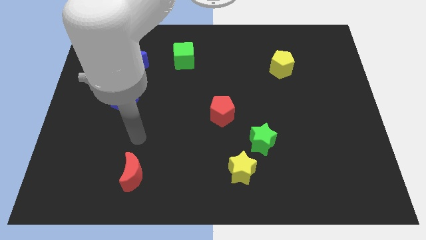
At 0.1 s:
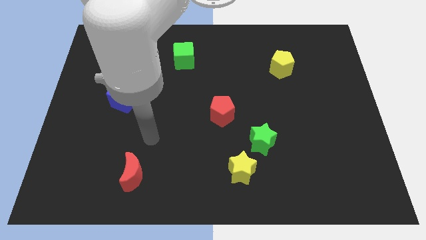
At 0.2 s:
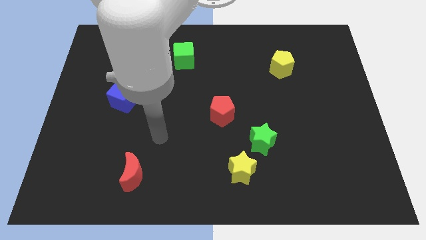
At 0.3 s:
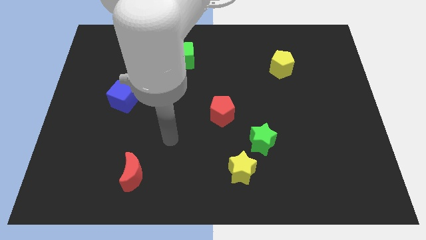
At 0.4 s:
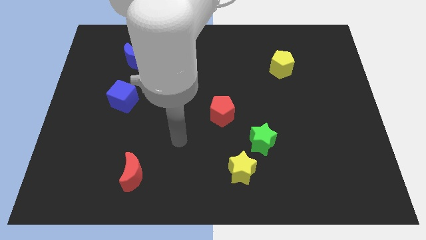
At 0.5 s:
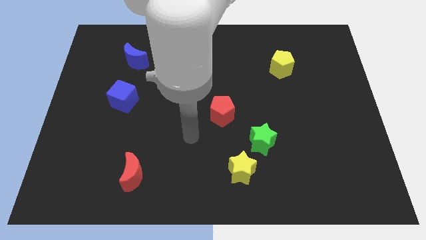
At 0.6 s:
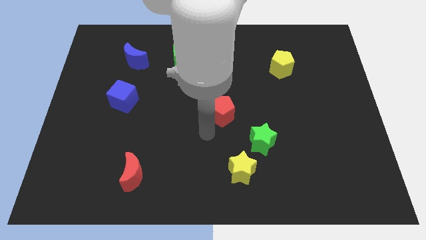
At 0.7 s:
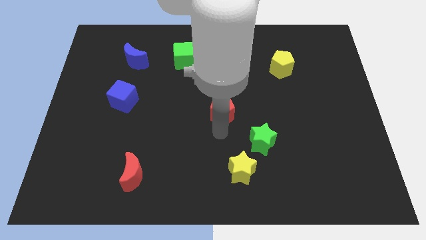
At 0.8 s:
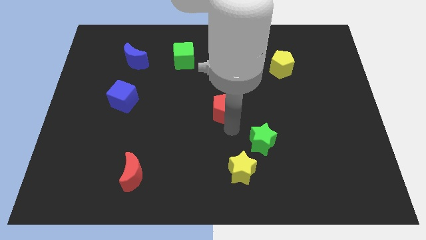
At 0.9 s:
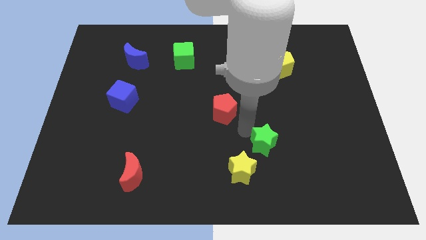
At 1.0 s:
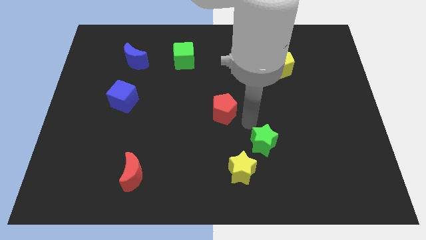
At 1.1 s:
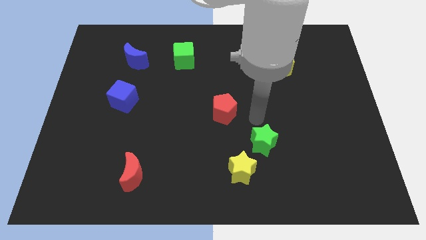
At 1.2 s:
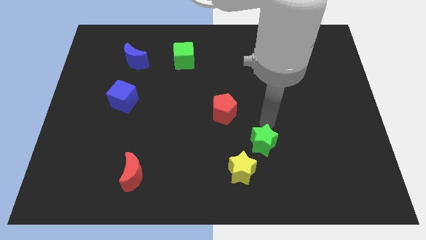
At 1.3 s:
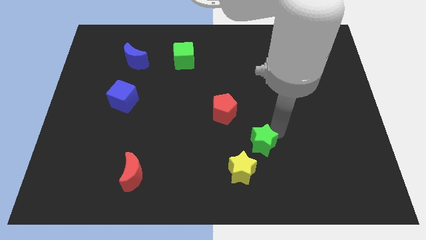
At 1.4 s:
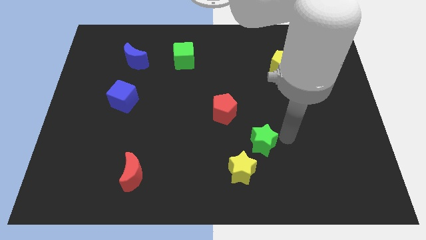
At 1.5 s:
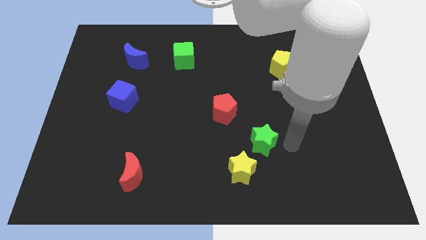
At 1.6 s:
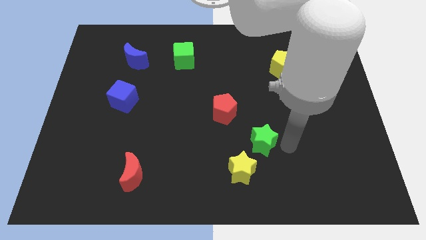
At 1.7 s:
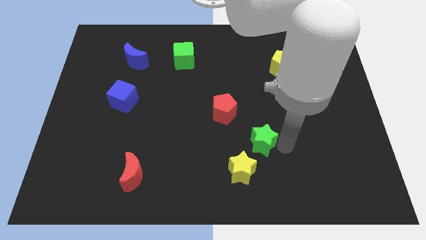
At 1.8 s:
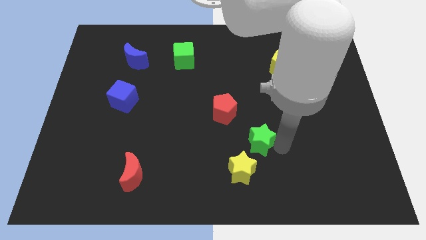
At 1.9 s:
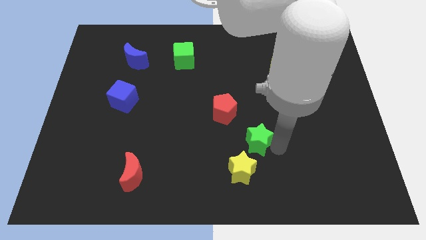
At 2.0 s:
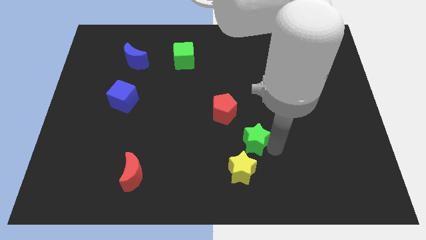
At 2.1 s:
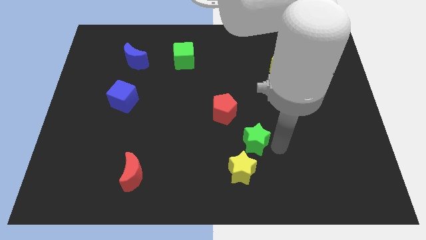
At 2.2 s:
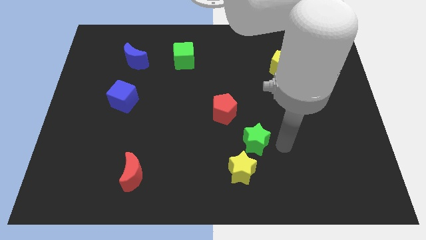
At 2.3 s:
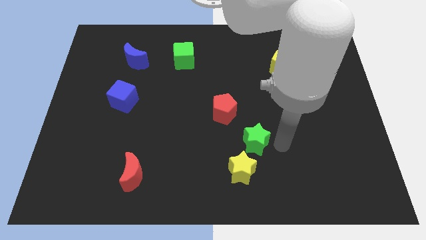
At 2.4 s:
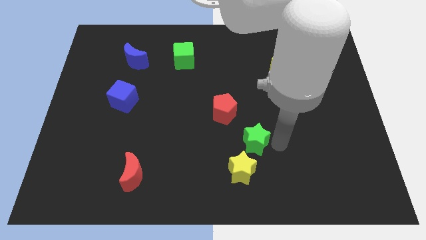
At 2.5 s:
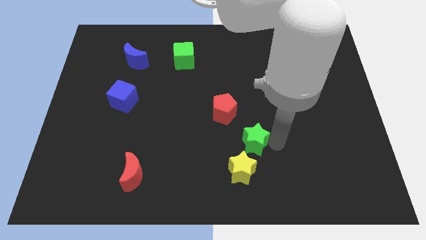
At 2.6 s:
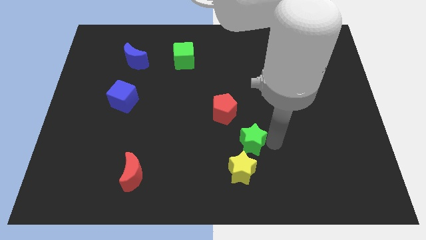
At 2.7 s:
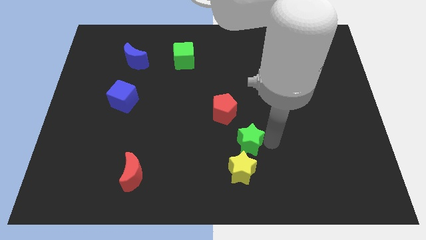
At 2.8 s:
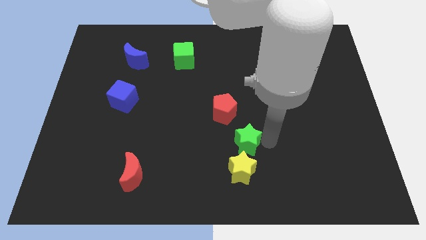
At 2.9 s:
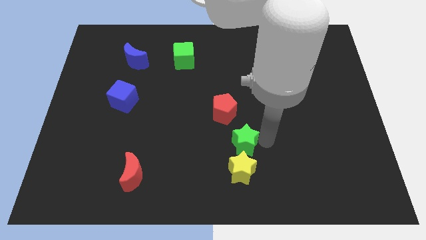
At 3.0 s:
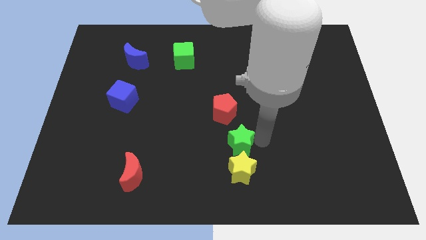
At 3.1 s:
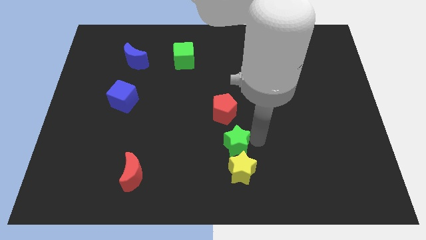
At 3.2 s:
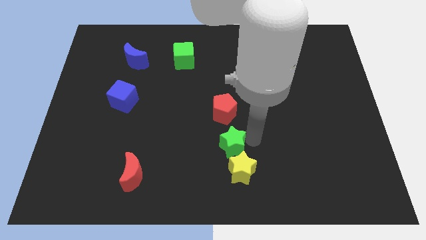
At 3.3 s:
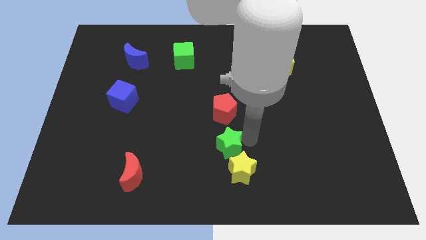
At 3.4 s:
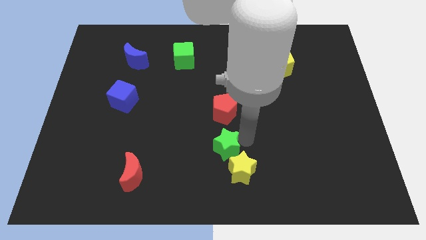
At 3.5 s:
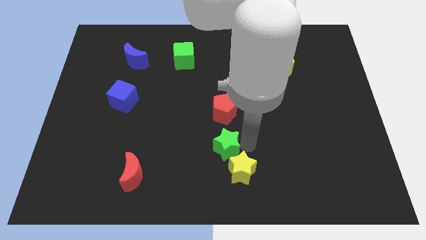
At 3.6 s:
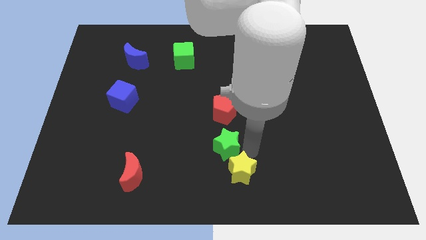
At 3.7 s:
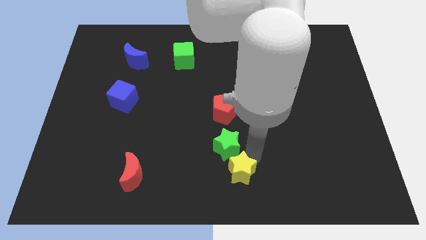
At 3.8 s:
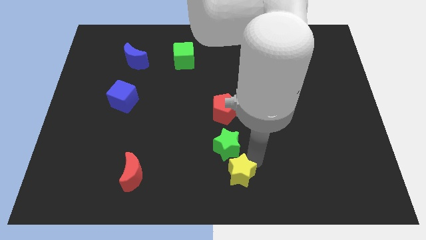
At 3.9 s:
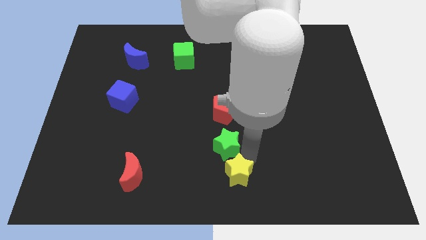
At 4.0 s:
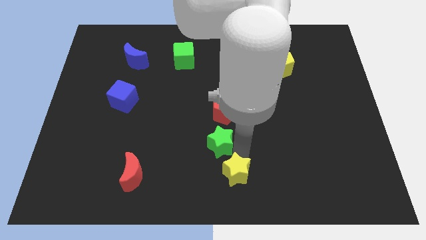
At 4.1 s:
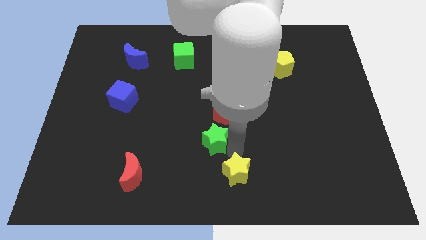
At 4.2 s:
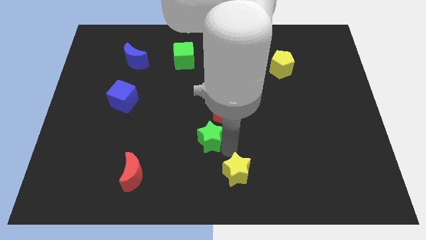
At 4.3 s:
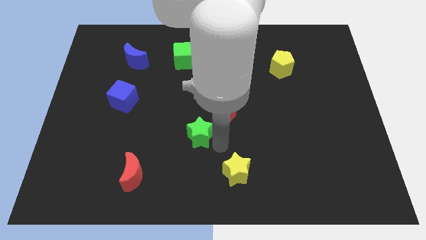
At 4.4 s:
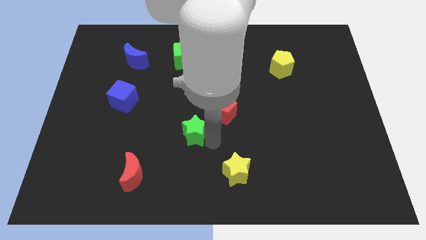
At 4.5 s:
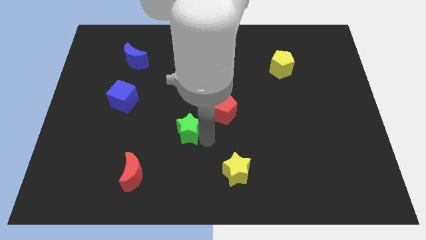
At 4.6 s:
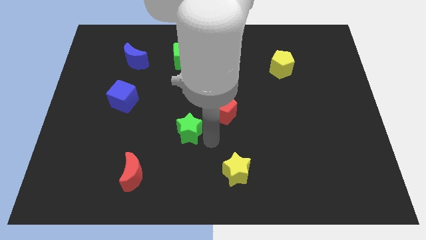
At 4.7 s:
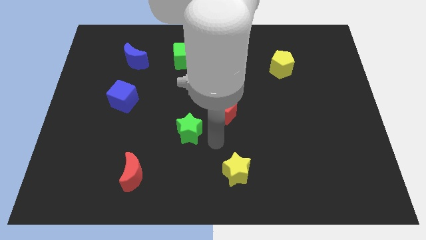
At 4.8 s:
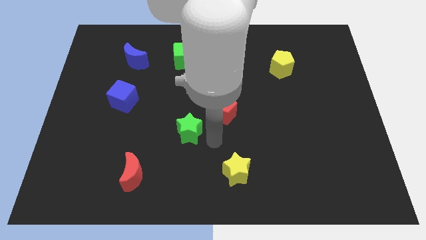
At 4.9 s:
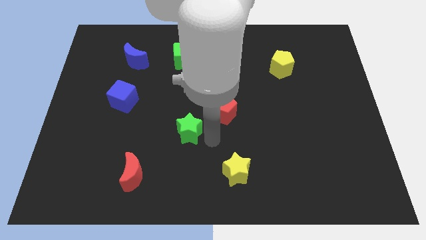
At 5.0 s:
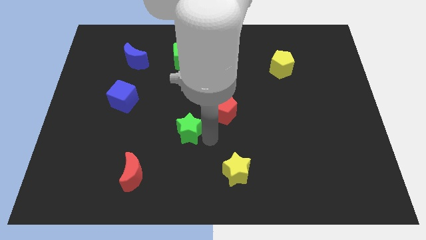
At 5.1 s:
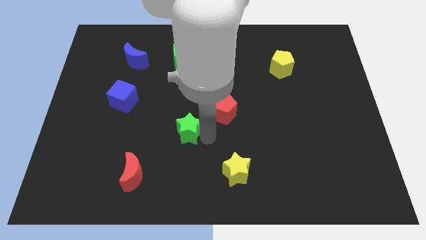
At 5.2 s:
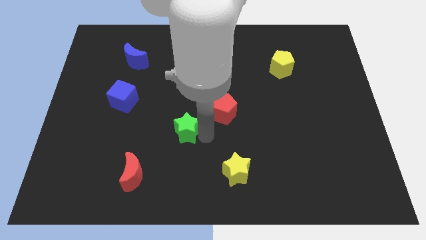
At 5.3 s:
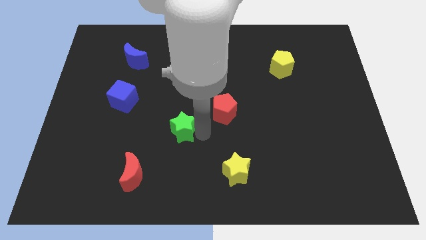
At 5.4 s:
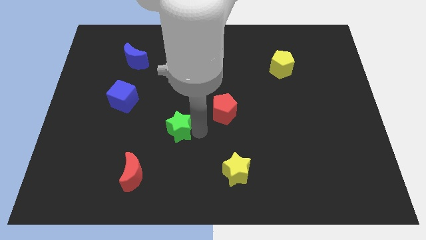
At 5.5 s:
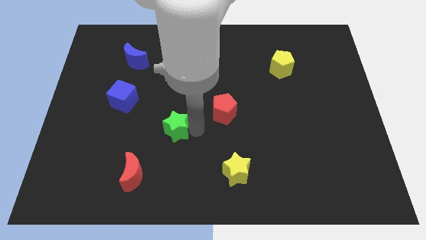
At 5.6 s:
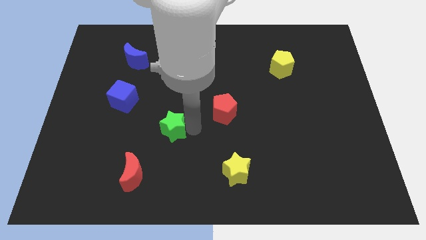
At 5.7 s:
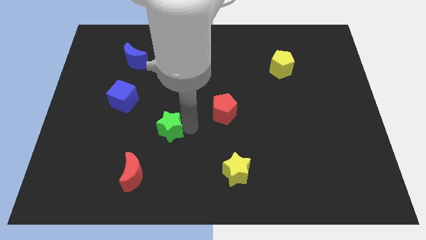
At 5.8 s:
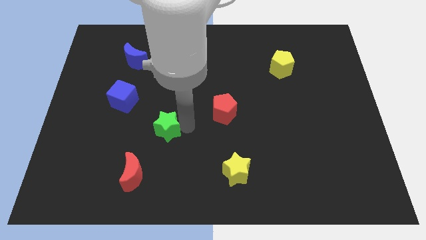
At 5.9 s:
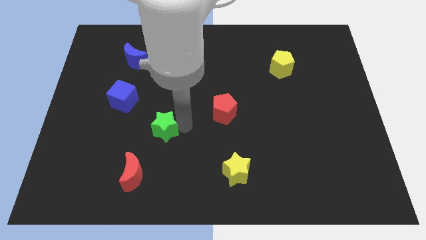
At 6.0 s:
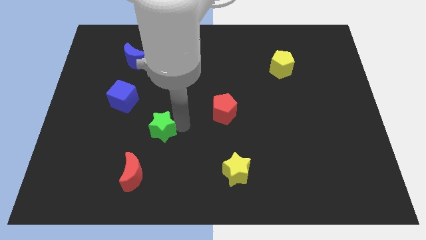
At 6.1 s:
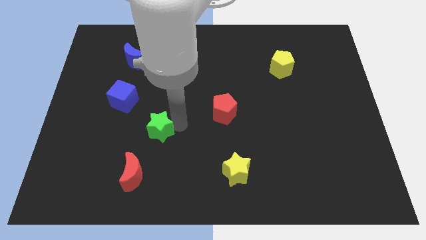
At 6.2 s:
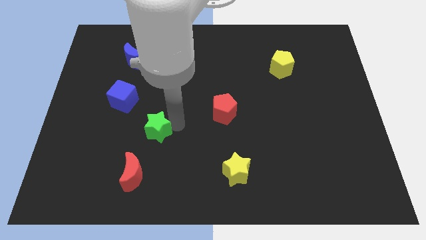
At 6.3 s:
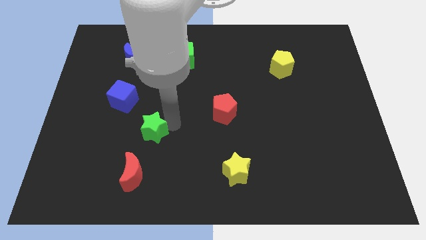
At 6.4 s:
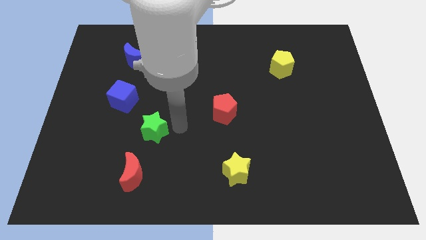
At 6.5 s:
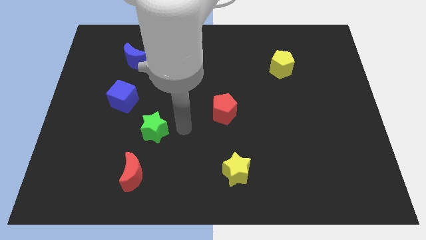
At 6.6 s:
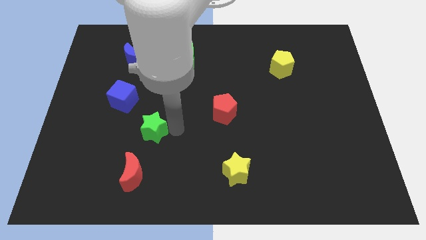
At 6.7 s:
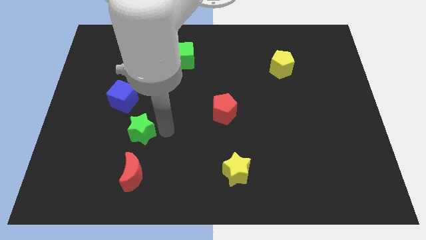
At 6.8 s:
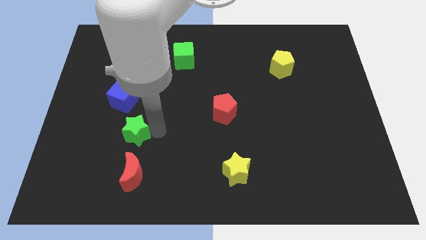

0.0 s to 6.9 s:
push the green star to the bottom of the blue cube

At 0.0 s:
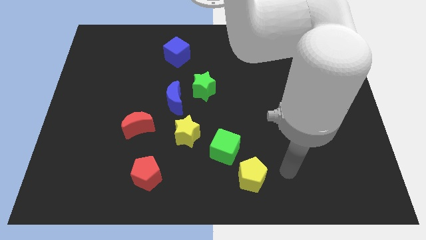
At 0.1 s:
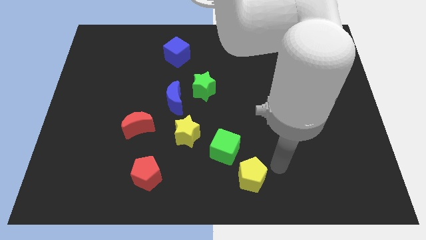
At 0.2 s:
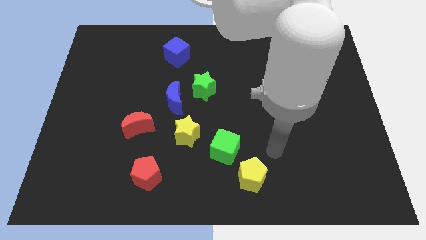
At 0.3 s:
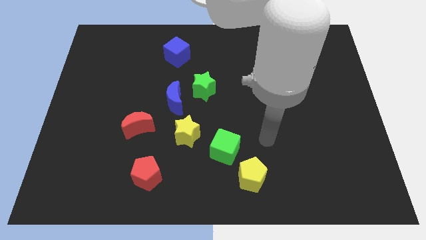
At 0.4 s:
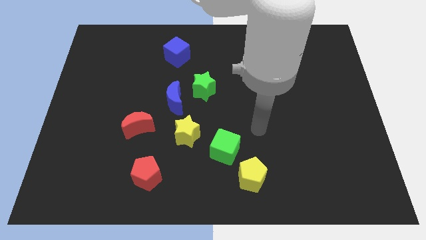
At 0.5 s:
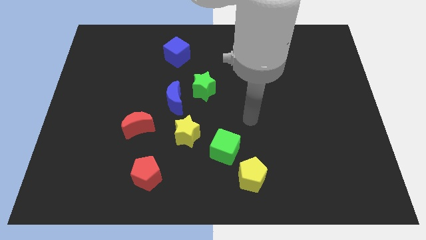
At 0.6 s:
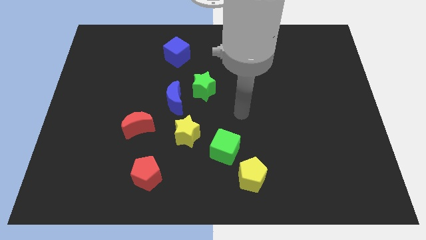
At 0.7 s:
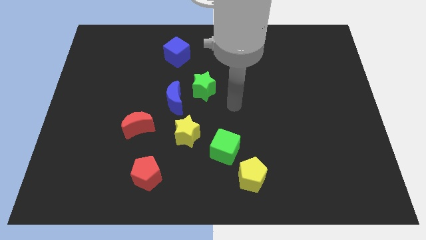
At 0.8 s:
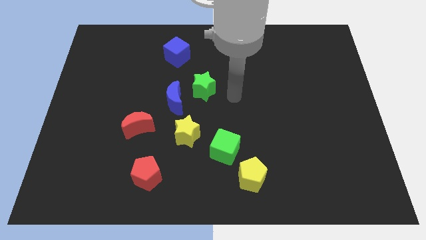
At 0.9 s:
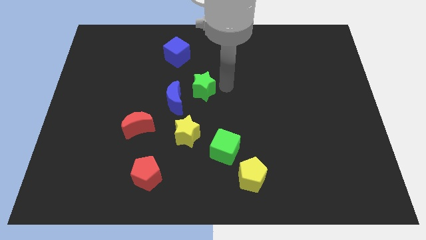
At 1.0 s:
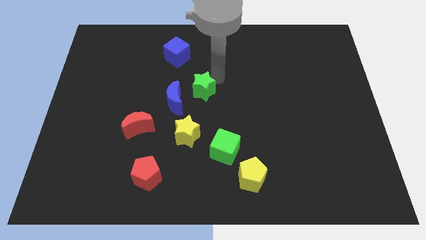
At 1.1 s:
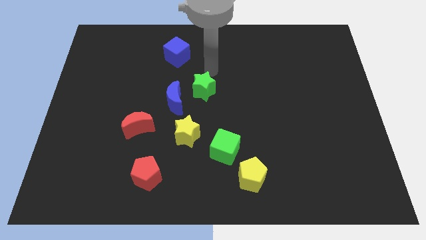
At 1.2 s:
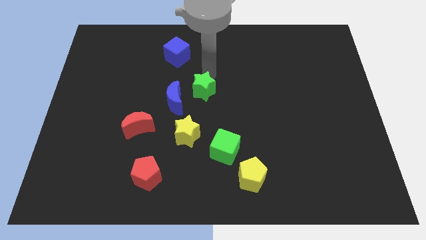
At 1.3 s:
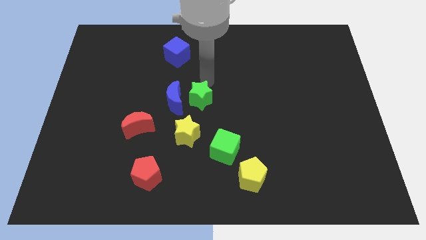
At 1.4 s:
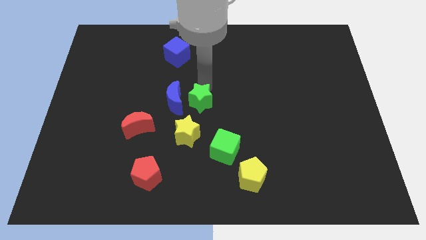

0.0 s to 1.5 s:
move the green star to the bottom right side of the blue moon
